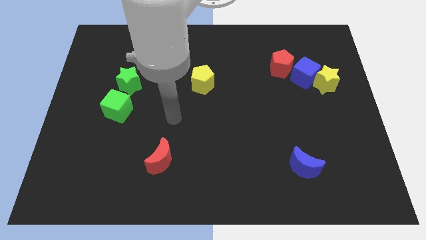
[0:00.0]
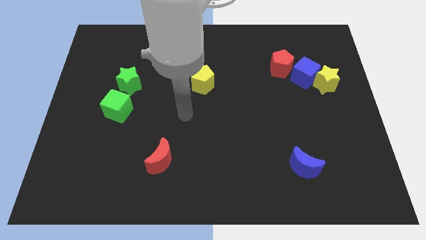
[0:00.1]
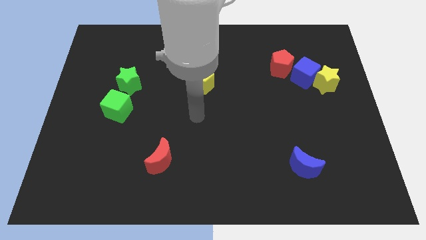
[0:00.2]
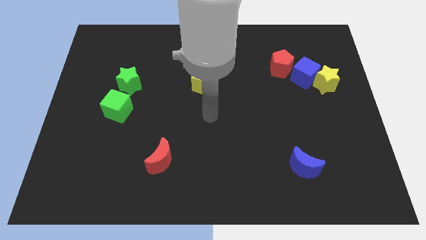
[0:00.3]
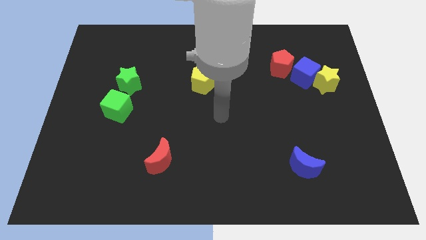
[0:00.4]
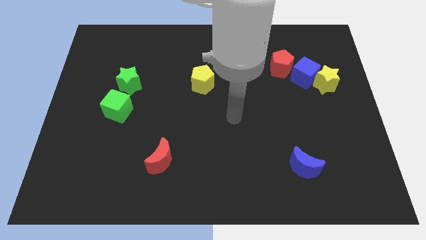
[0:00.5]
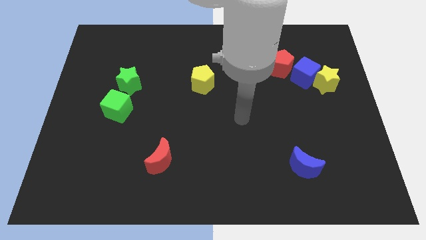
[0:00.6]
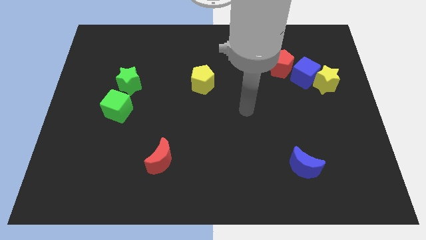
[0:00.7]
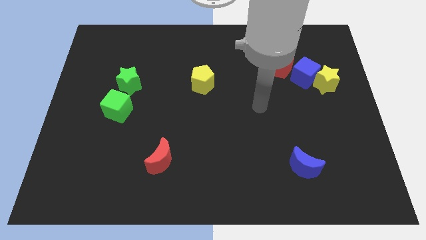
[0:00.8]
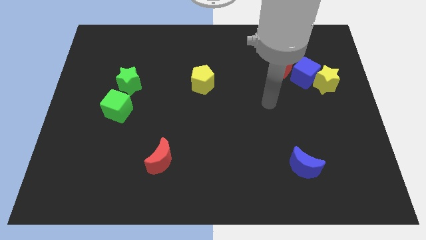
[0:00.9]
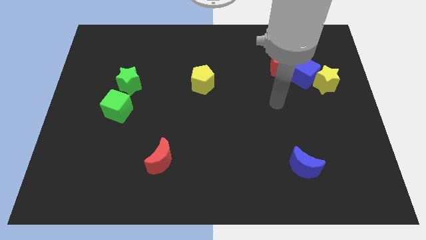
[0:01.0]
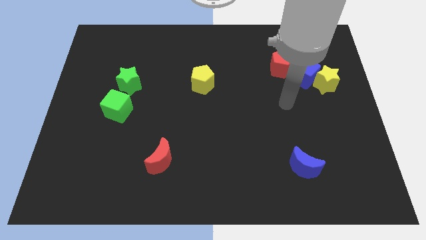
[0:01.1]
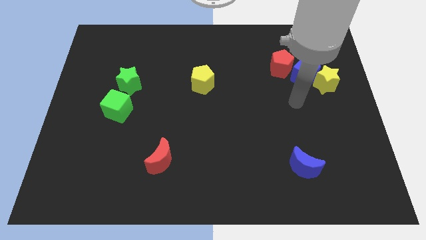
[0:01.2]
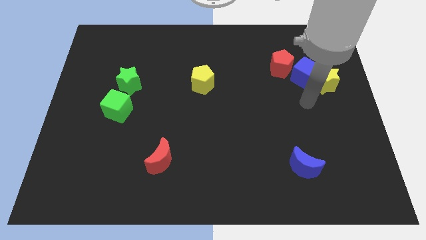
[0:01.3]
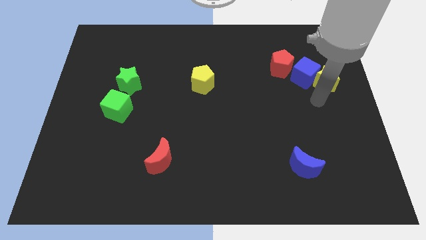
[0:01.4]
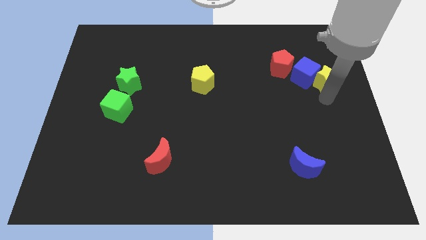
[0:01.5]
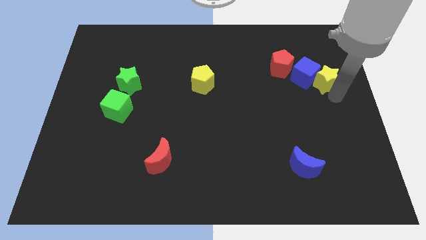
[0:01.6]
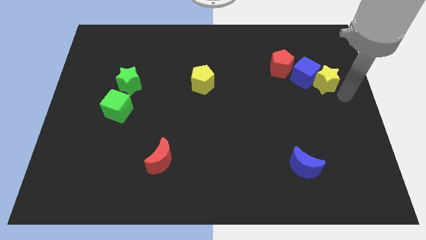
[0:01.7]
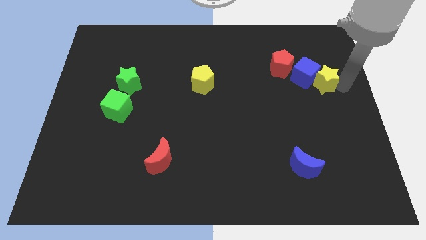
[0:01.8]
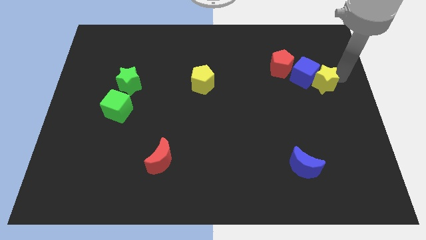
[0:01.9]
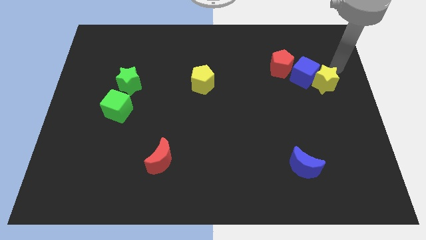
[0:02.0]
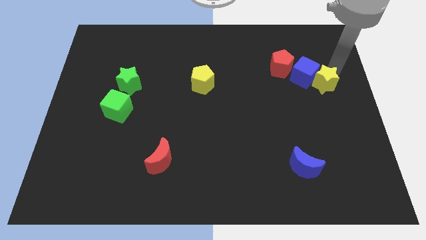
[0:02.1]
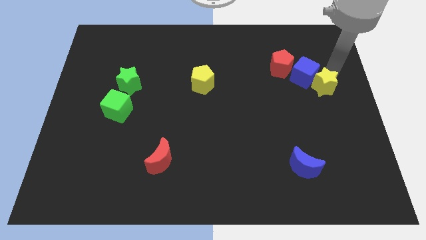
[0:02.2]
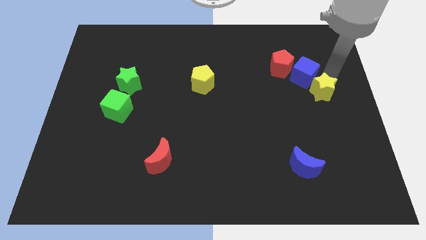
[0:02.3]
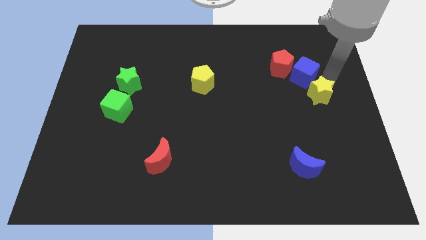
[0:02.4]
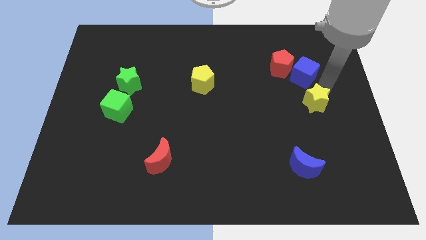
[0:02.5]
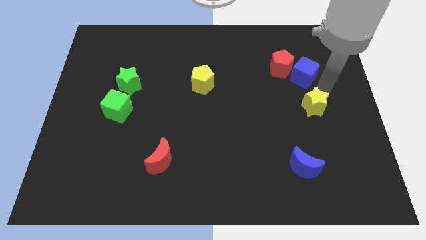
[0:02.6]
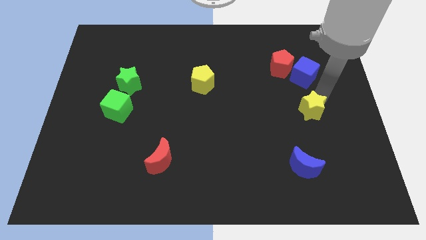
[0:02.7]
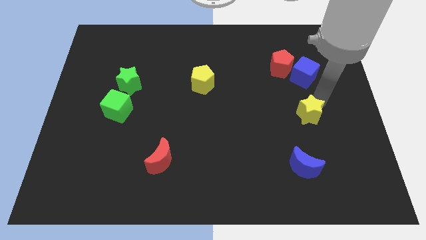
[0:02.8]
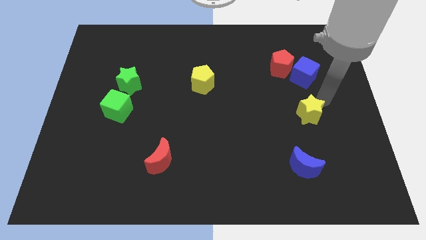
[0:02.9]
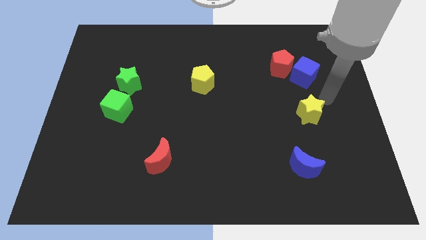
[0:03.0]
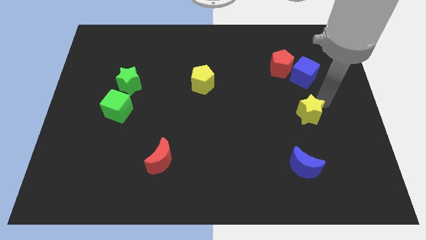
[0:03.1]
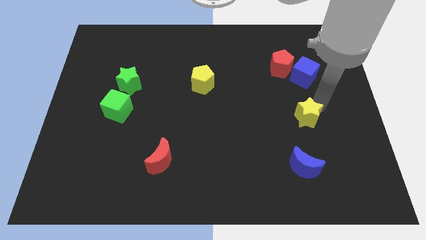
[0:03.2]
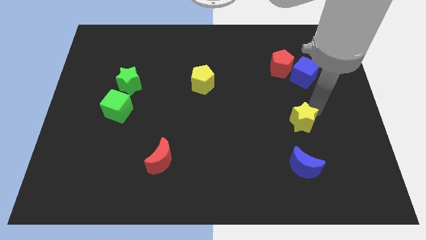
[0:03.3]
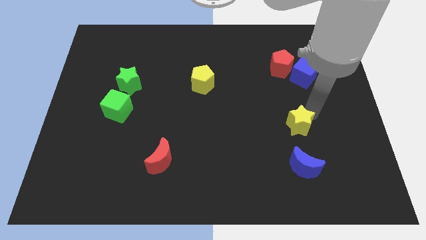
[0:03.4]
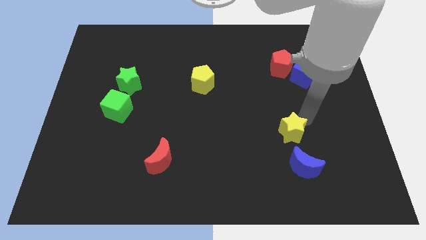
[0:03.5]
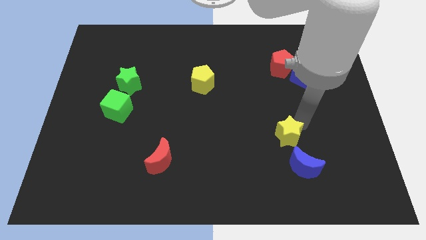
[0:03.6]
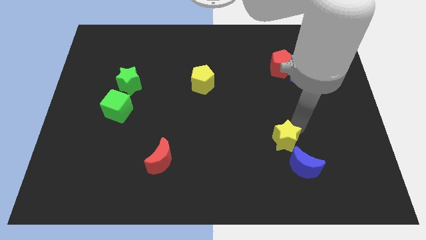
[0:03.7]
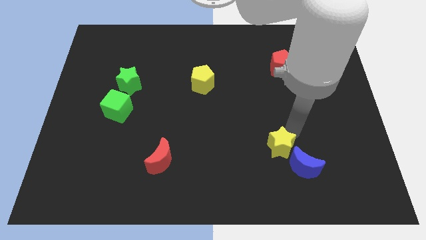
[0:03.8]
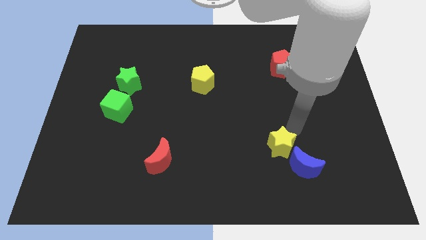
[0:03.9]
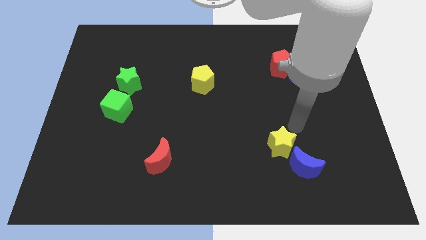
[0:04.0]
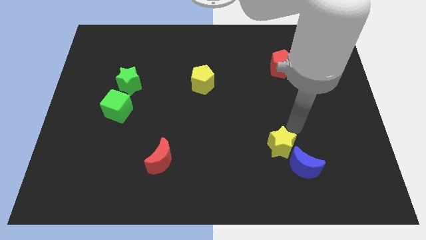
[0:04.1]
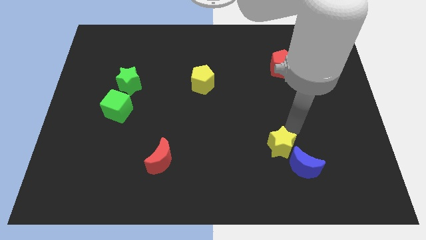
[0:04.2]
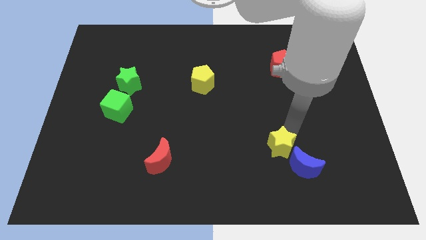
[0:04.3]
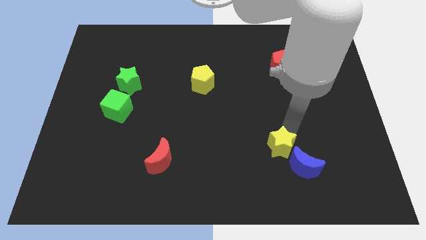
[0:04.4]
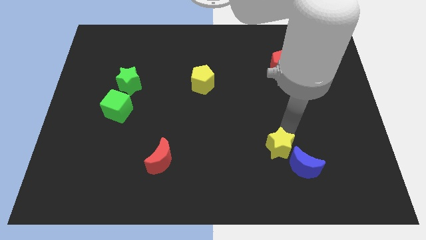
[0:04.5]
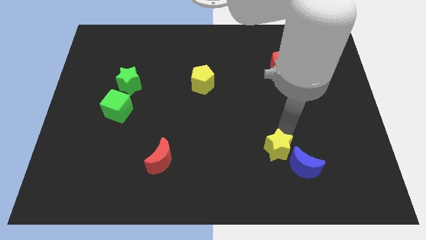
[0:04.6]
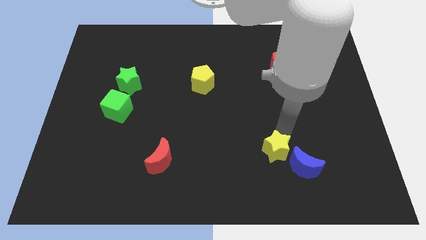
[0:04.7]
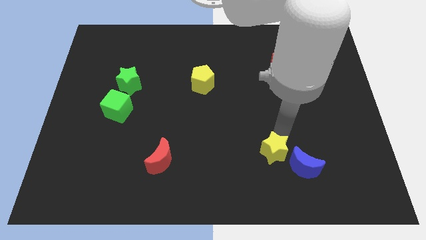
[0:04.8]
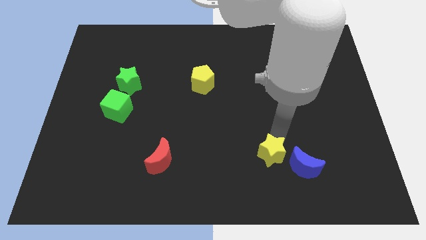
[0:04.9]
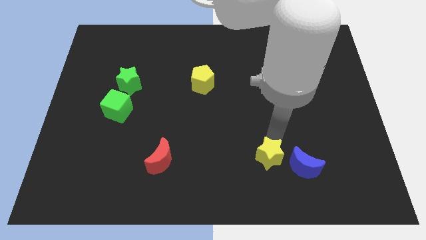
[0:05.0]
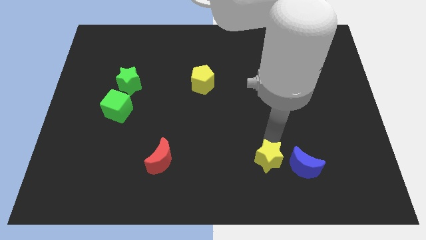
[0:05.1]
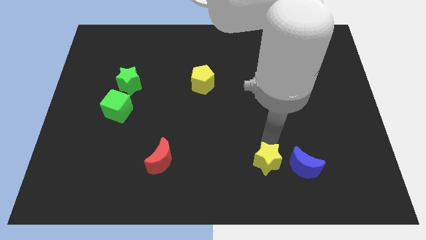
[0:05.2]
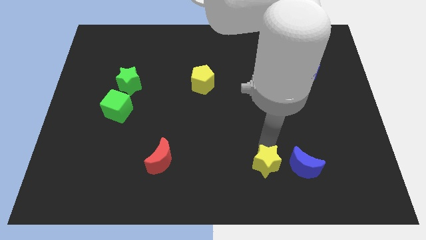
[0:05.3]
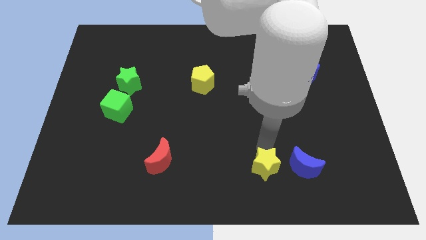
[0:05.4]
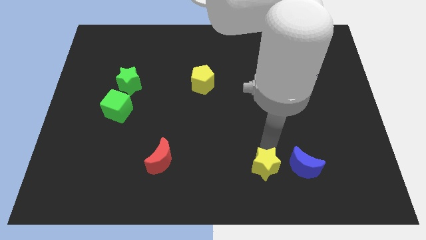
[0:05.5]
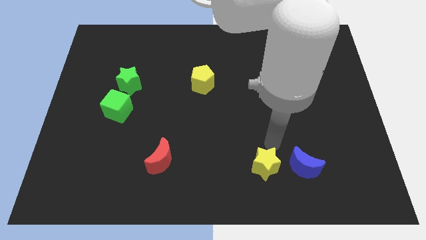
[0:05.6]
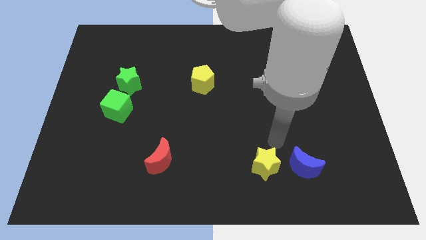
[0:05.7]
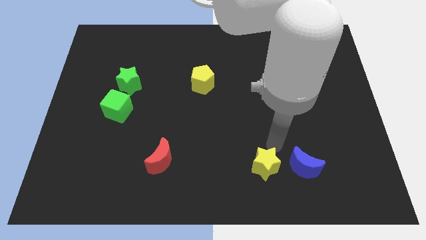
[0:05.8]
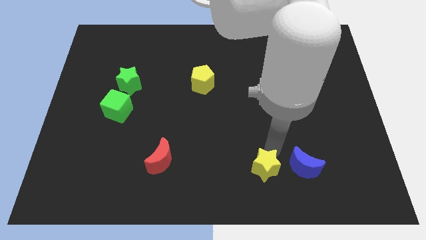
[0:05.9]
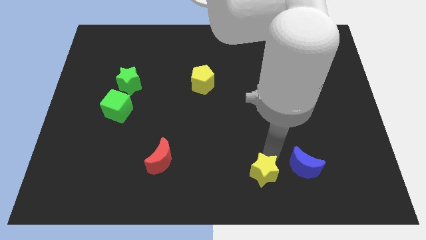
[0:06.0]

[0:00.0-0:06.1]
move the yellow star to the bottom side
